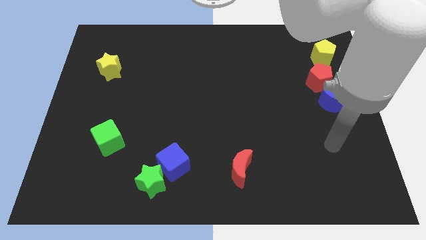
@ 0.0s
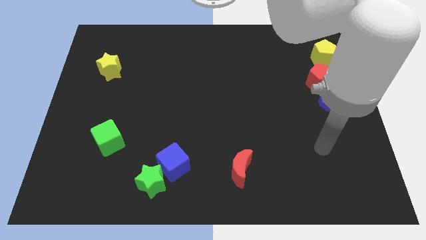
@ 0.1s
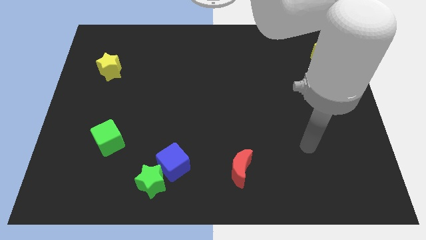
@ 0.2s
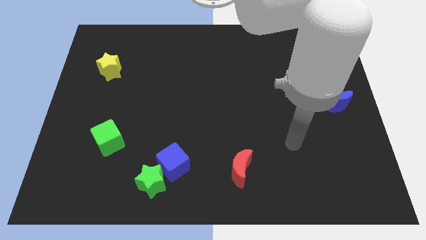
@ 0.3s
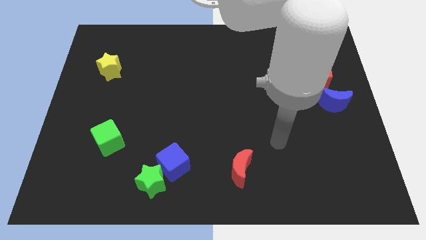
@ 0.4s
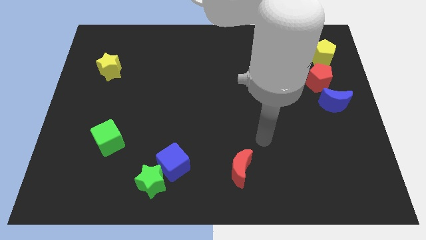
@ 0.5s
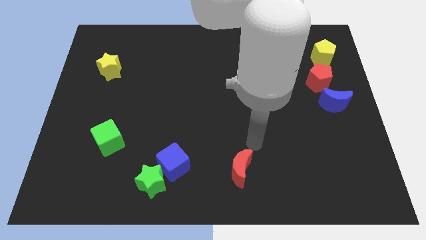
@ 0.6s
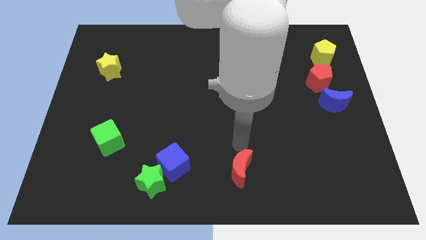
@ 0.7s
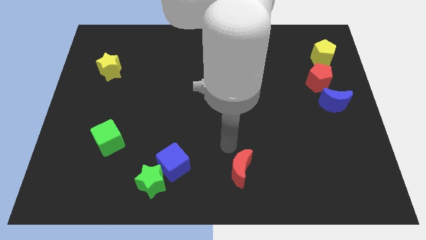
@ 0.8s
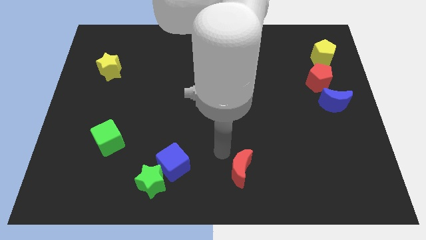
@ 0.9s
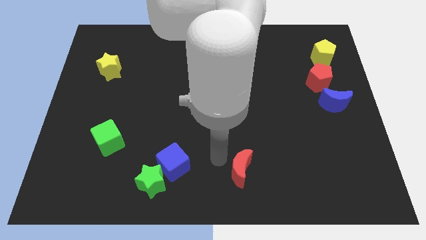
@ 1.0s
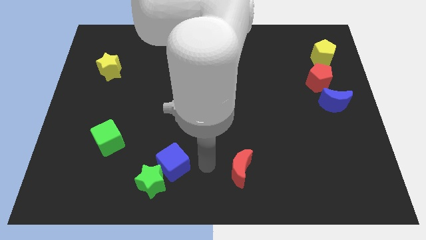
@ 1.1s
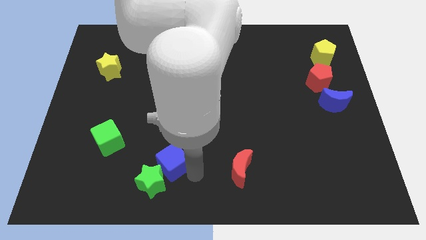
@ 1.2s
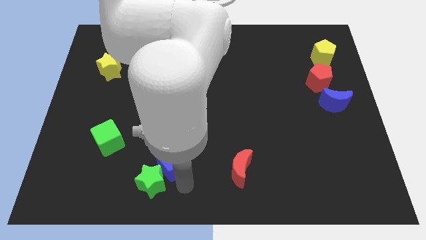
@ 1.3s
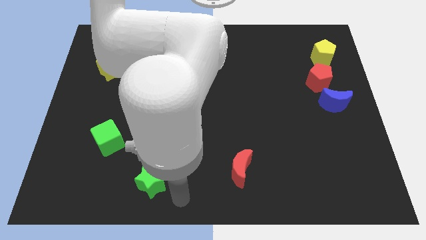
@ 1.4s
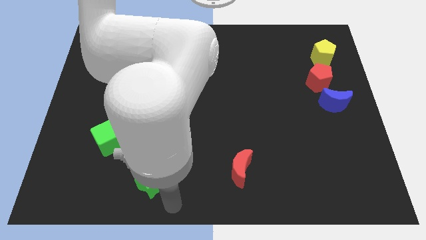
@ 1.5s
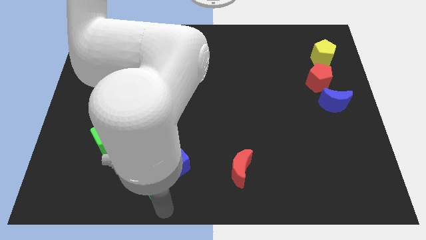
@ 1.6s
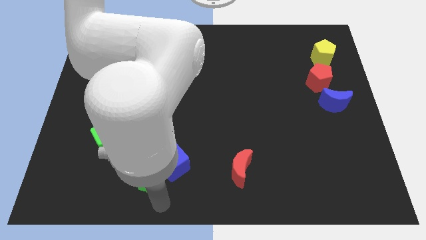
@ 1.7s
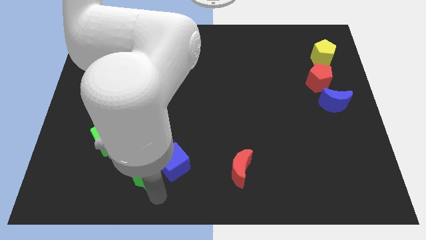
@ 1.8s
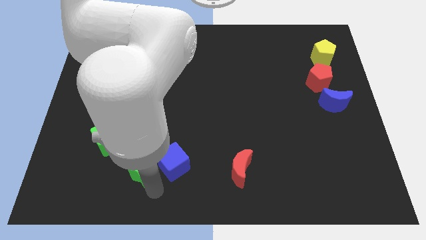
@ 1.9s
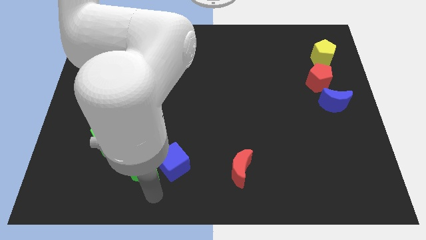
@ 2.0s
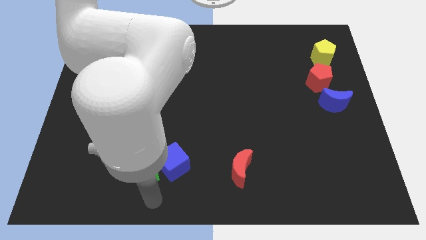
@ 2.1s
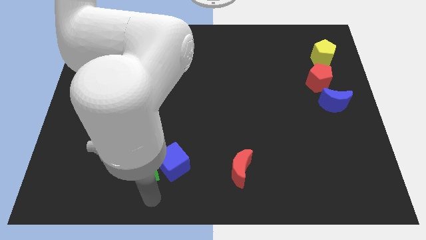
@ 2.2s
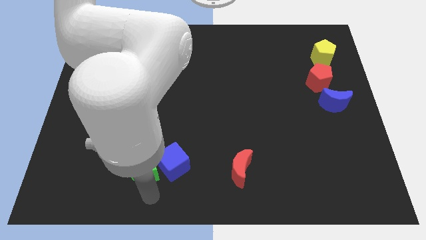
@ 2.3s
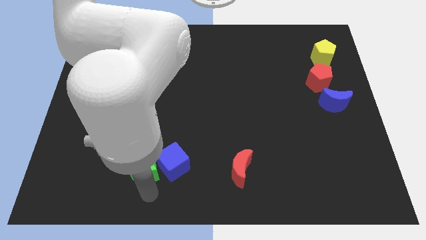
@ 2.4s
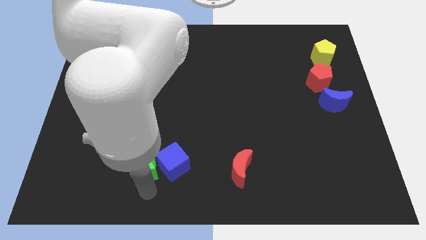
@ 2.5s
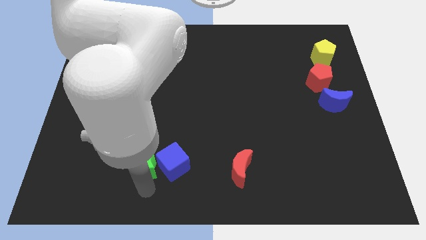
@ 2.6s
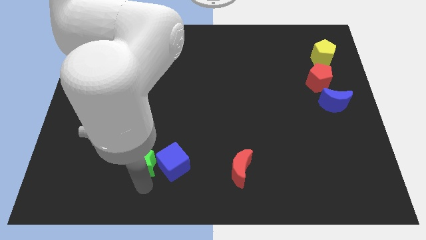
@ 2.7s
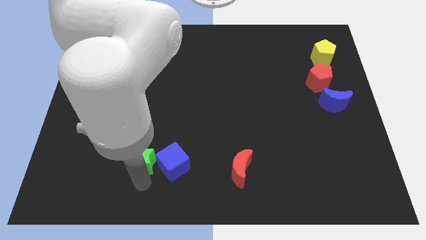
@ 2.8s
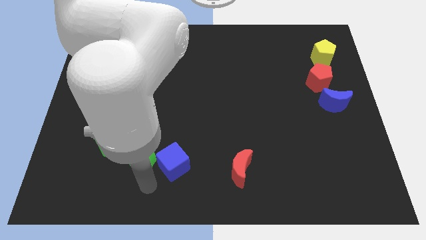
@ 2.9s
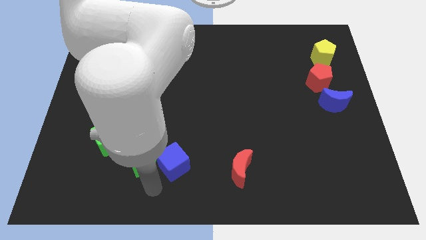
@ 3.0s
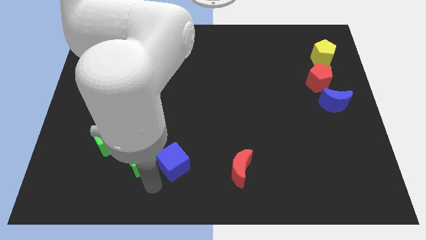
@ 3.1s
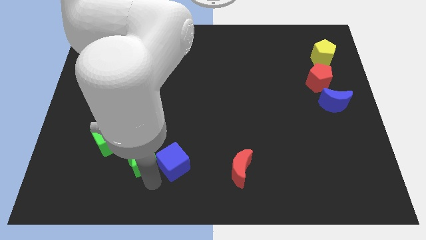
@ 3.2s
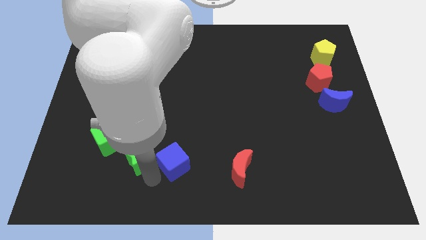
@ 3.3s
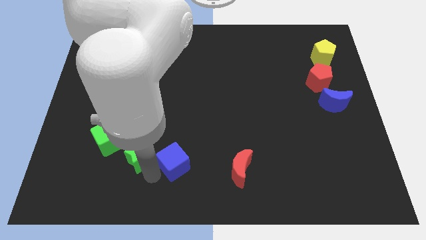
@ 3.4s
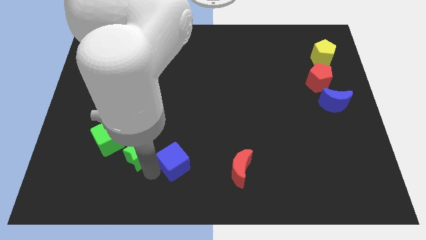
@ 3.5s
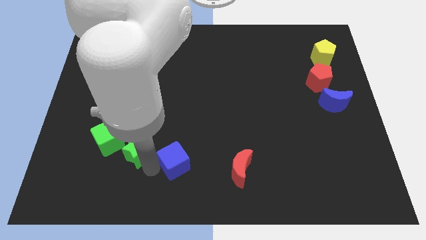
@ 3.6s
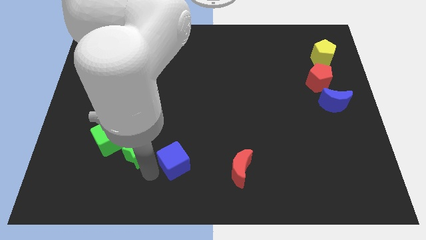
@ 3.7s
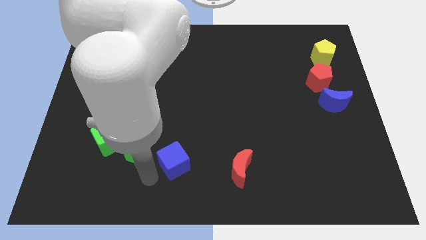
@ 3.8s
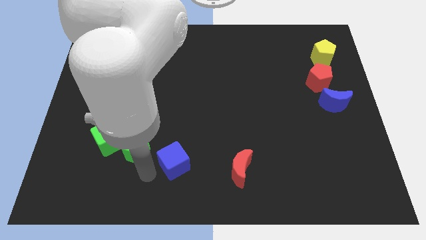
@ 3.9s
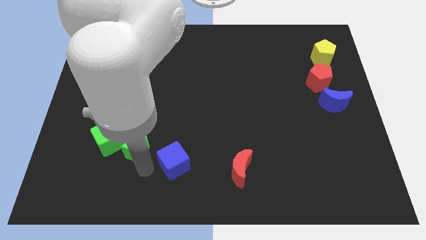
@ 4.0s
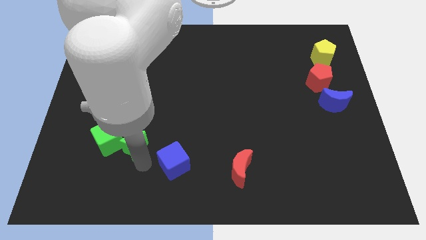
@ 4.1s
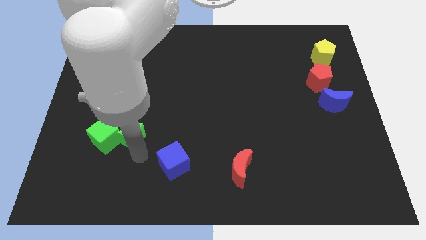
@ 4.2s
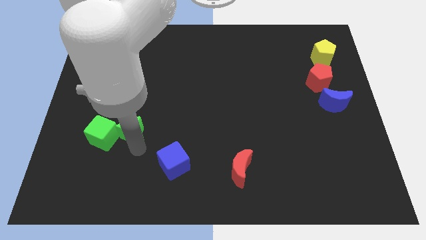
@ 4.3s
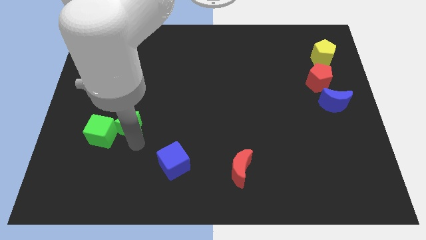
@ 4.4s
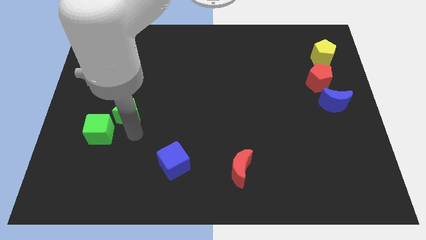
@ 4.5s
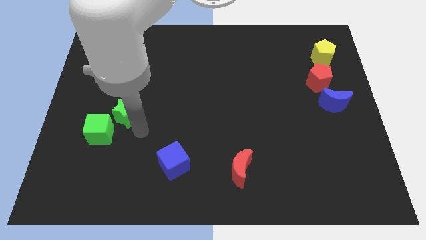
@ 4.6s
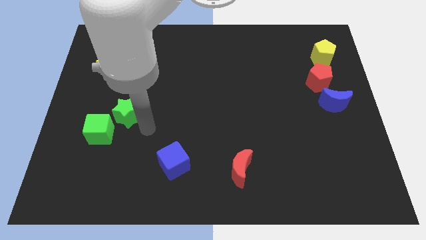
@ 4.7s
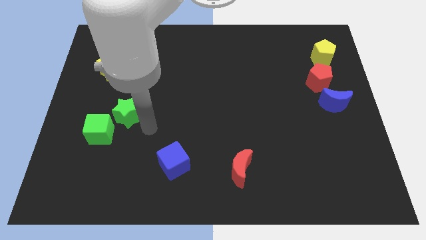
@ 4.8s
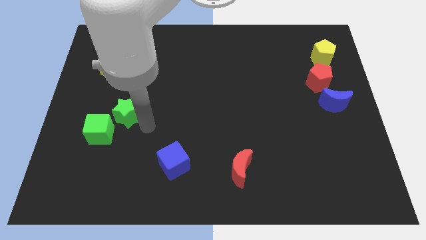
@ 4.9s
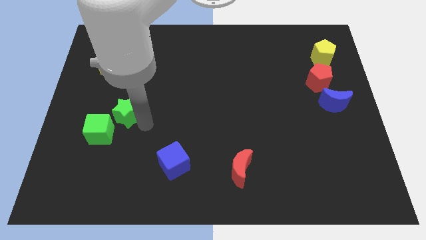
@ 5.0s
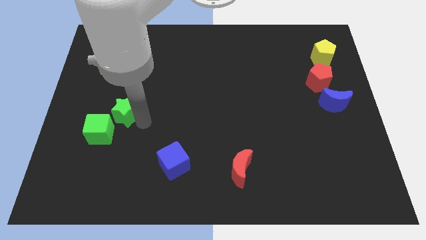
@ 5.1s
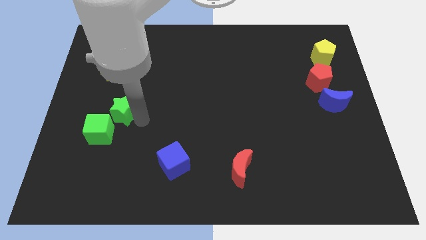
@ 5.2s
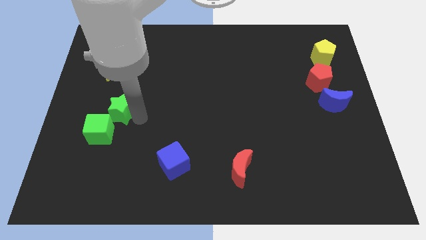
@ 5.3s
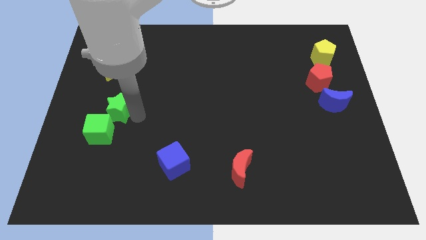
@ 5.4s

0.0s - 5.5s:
slide the green star to the bottom of the yellow star

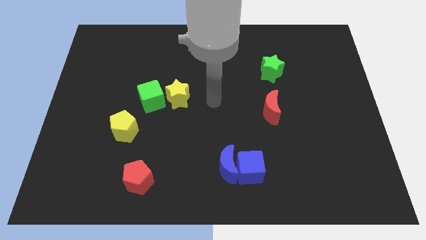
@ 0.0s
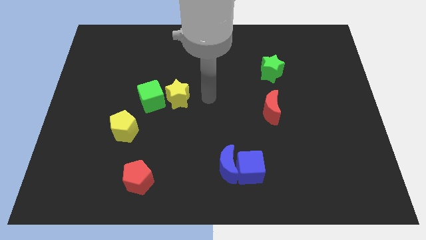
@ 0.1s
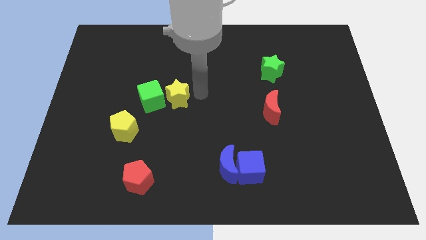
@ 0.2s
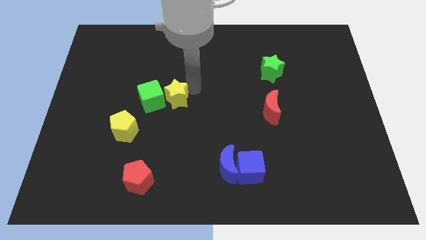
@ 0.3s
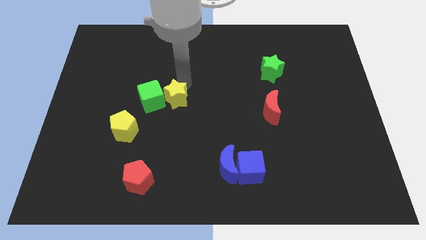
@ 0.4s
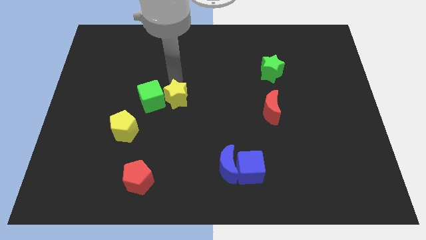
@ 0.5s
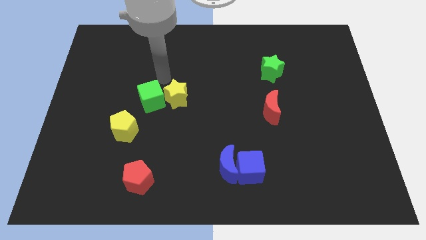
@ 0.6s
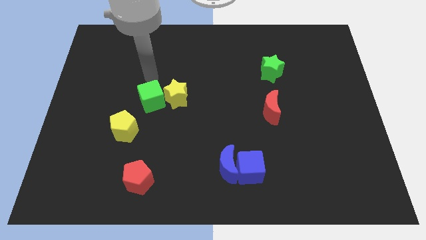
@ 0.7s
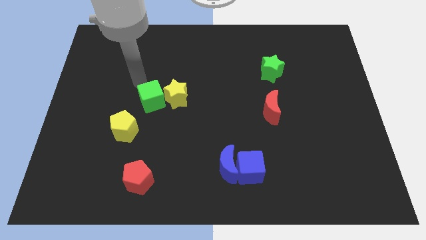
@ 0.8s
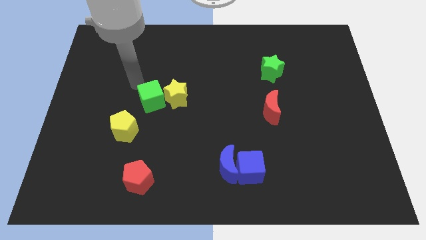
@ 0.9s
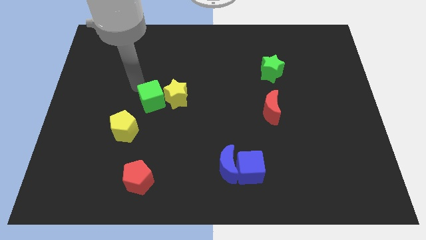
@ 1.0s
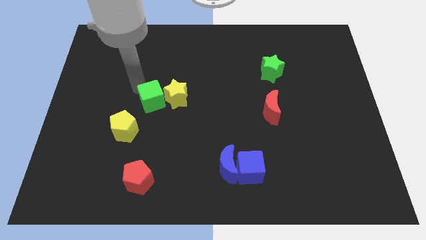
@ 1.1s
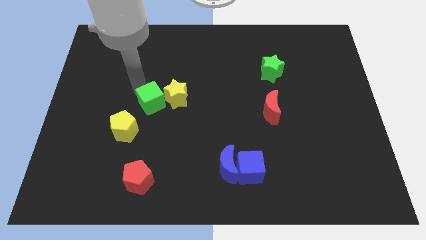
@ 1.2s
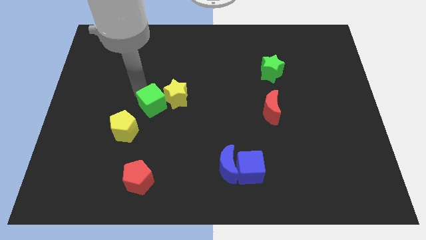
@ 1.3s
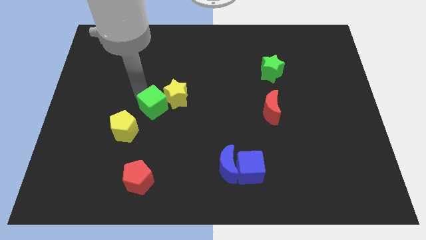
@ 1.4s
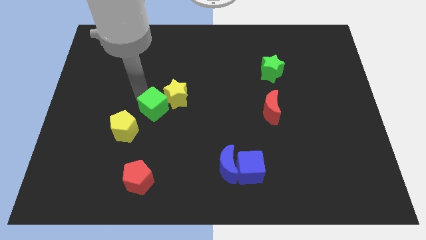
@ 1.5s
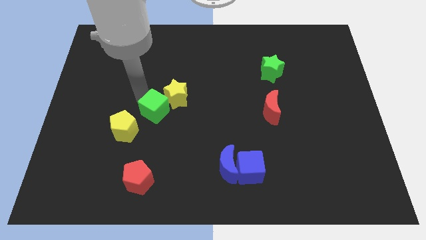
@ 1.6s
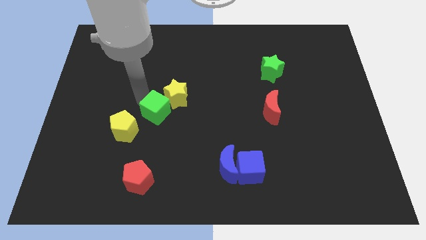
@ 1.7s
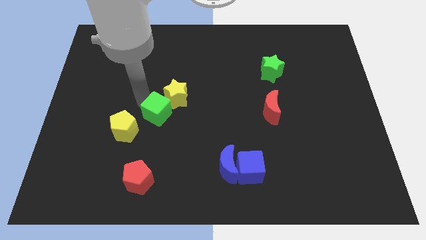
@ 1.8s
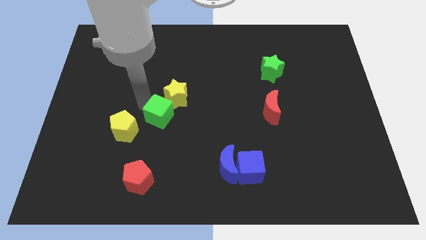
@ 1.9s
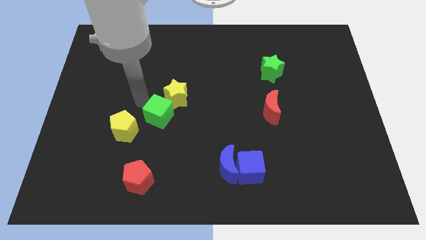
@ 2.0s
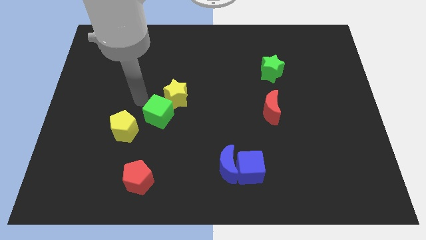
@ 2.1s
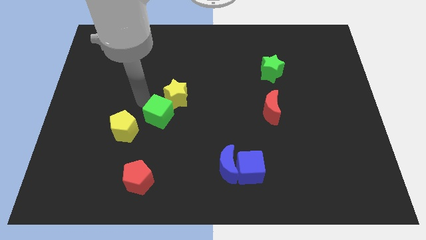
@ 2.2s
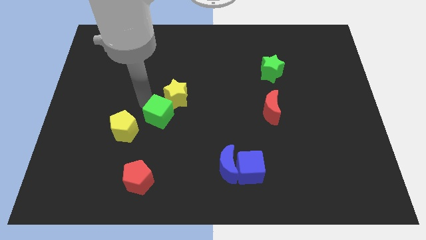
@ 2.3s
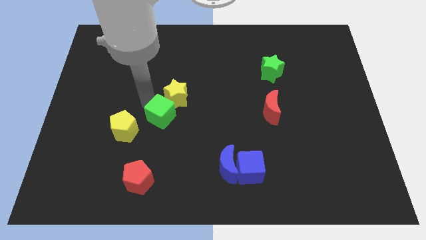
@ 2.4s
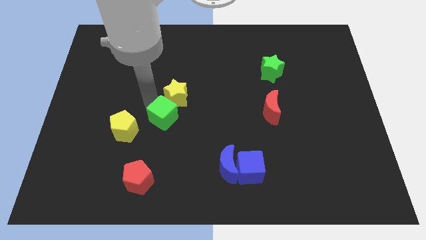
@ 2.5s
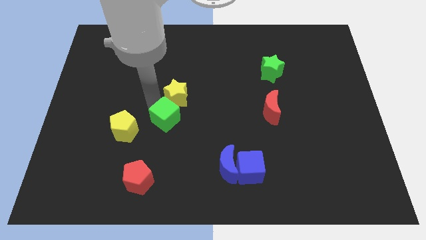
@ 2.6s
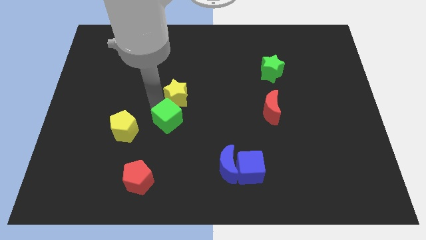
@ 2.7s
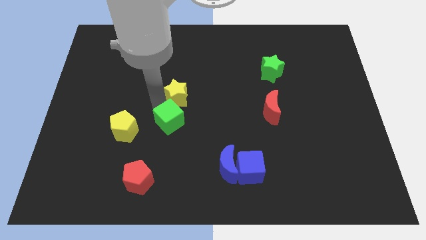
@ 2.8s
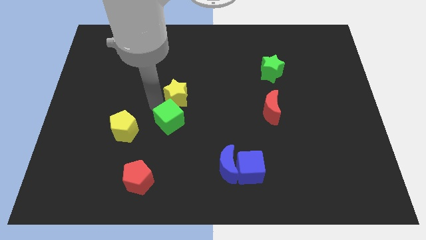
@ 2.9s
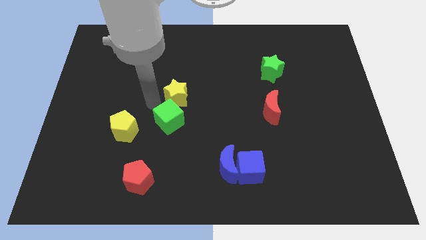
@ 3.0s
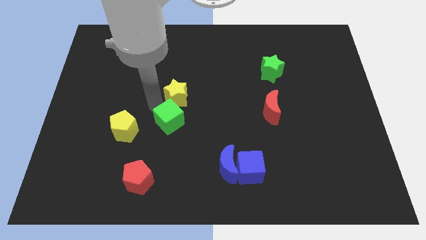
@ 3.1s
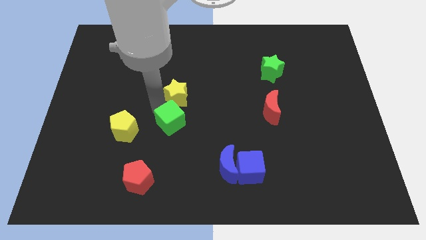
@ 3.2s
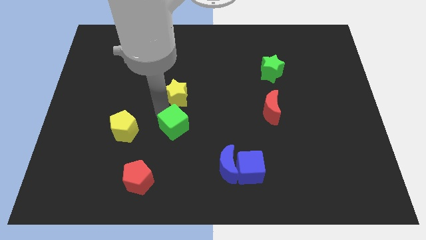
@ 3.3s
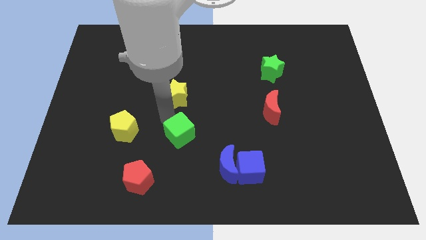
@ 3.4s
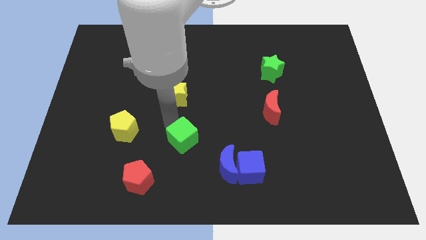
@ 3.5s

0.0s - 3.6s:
put the green cube to the top left of the blue moon
